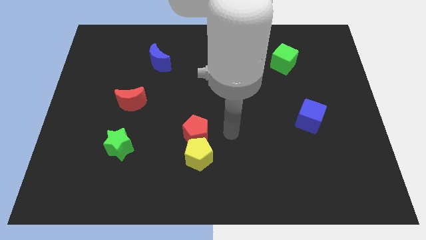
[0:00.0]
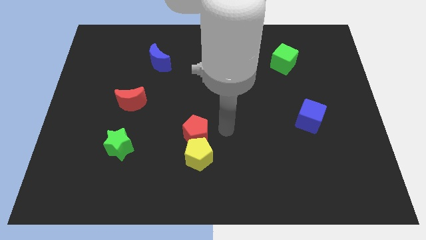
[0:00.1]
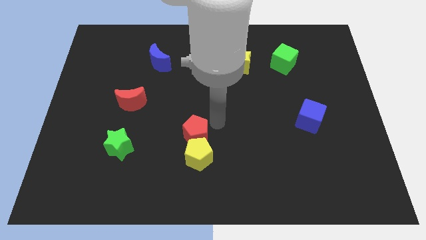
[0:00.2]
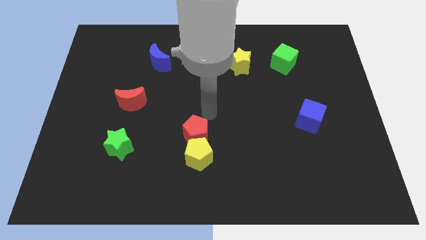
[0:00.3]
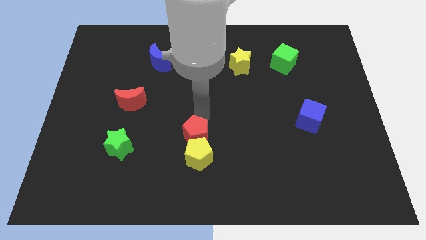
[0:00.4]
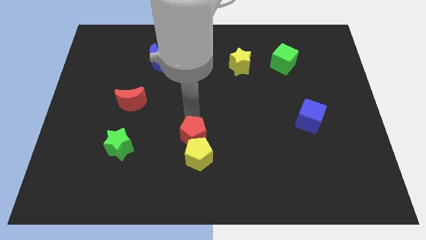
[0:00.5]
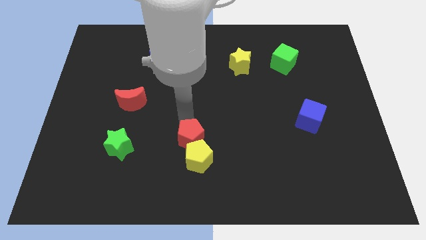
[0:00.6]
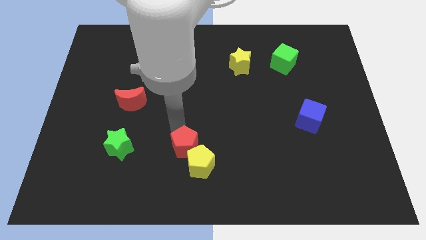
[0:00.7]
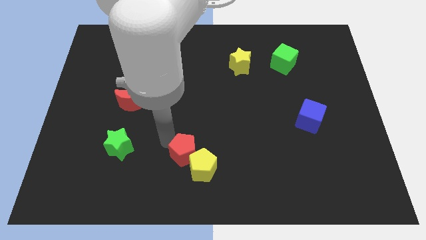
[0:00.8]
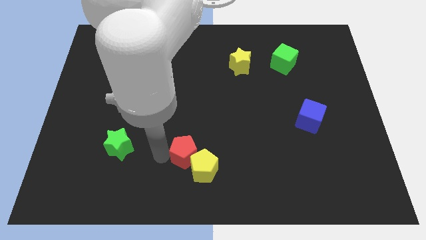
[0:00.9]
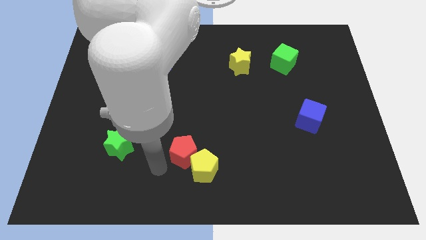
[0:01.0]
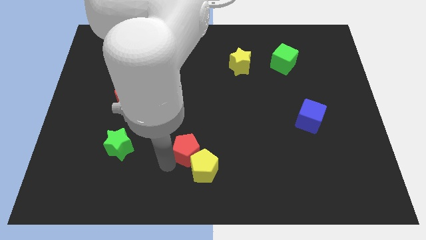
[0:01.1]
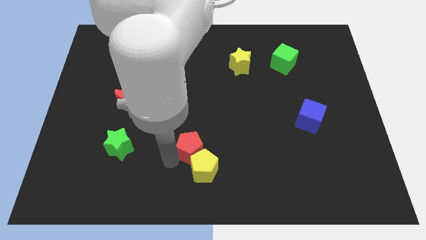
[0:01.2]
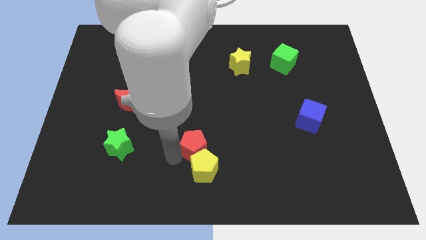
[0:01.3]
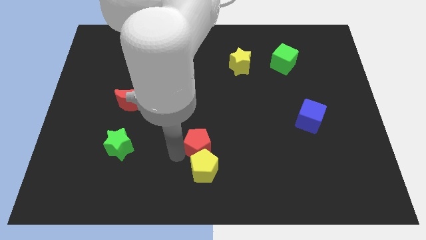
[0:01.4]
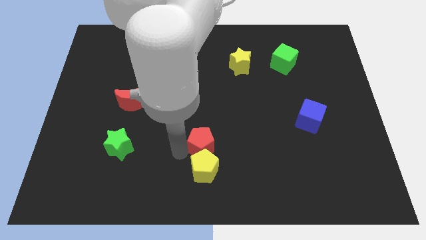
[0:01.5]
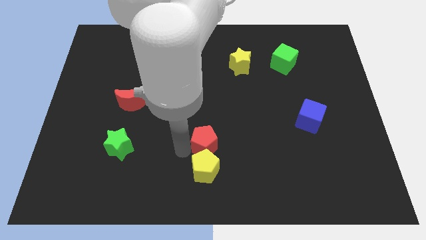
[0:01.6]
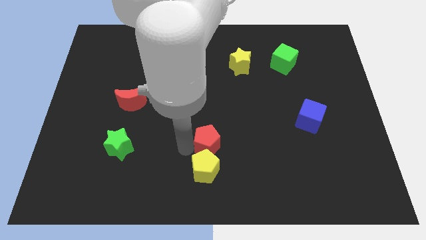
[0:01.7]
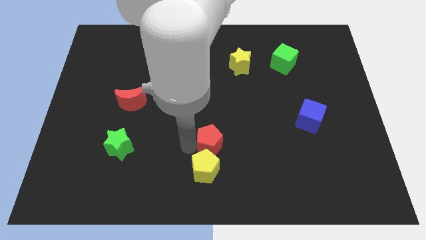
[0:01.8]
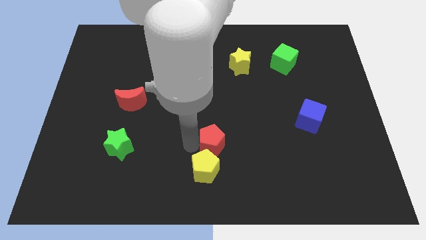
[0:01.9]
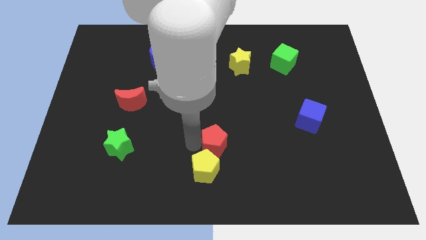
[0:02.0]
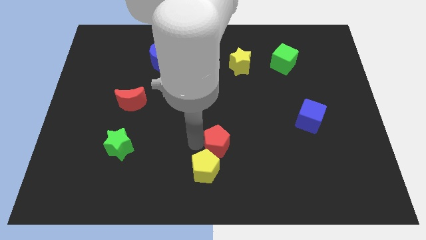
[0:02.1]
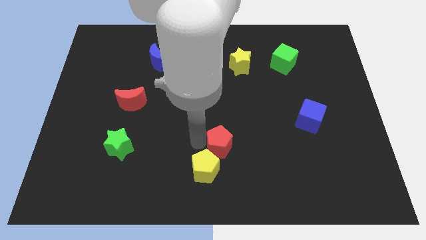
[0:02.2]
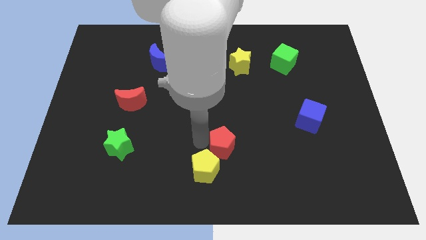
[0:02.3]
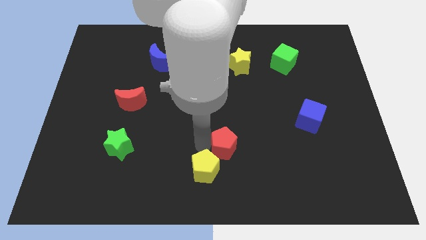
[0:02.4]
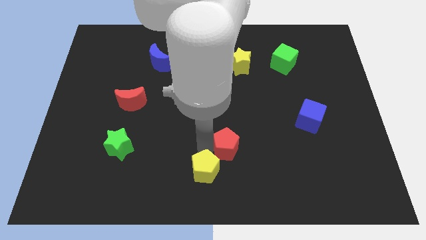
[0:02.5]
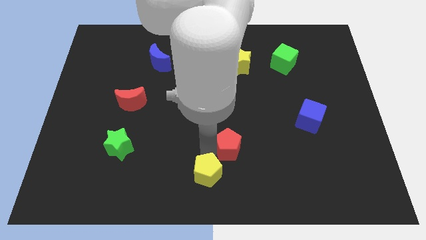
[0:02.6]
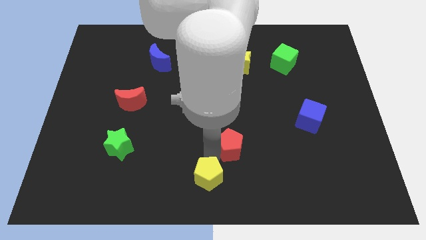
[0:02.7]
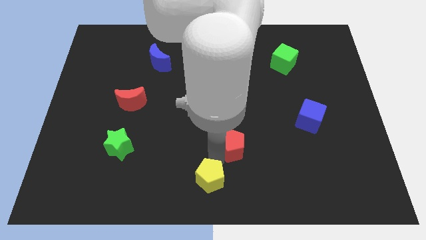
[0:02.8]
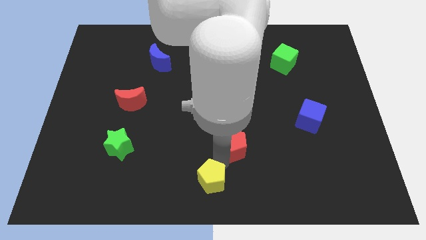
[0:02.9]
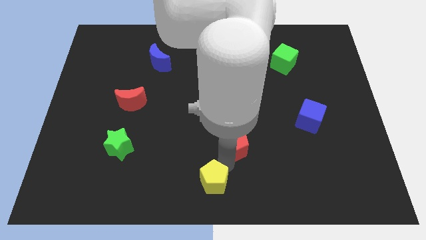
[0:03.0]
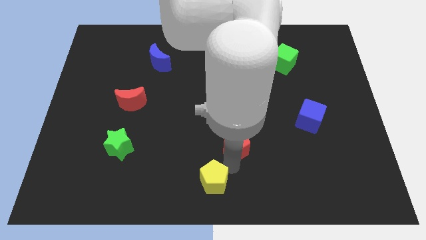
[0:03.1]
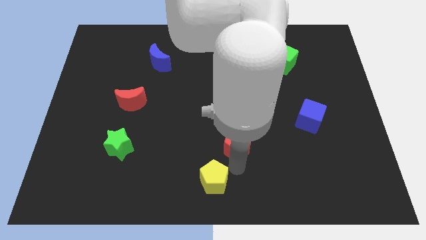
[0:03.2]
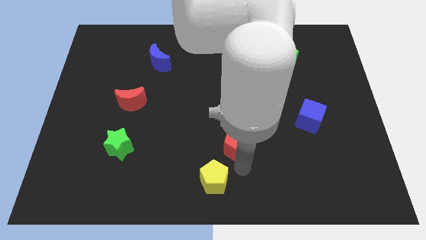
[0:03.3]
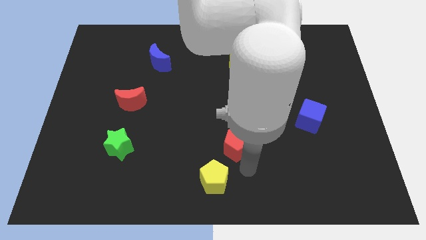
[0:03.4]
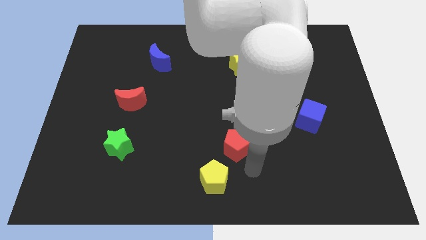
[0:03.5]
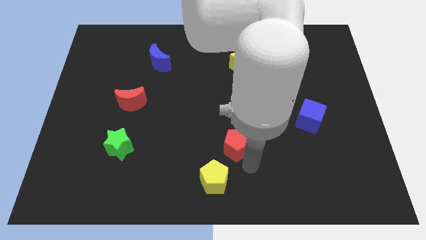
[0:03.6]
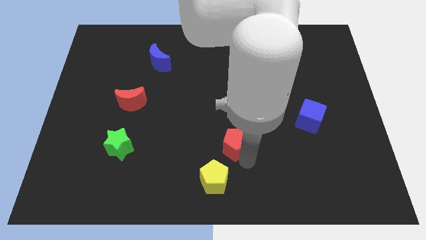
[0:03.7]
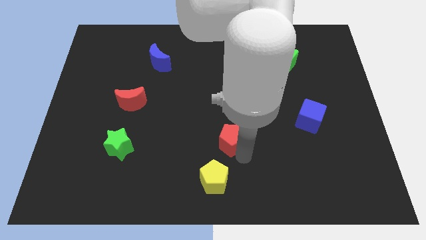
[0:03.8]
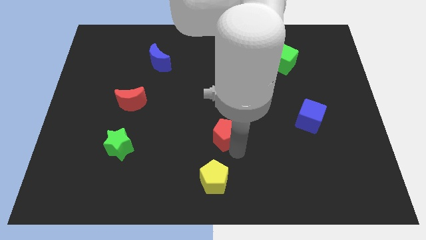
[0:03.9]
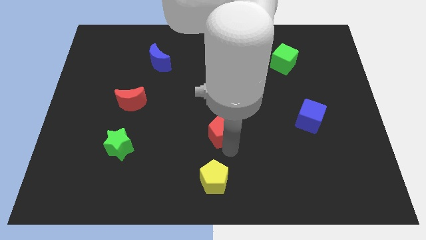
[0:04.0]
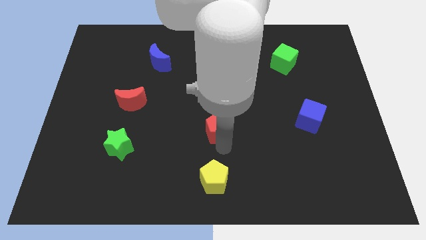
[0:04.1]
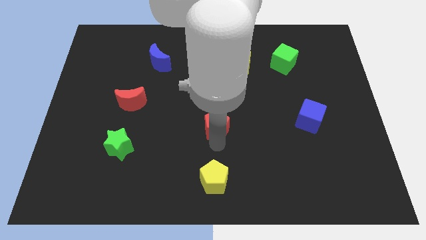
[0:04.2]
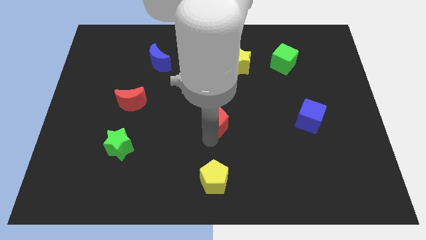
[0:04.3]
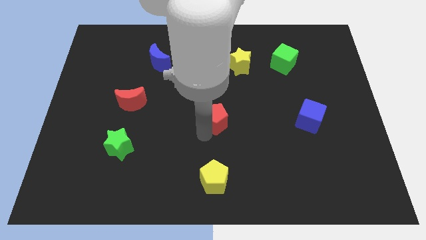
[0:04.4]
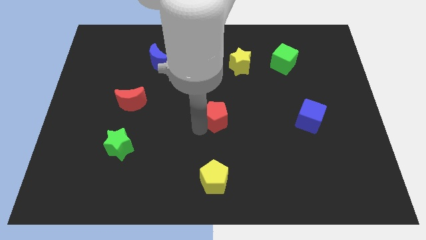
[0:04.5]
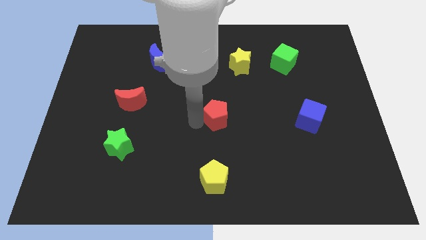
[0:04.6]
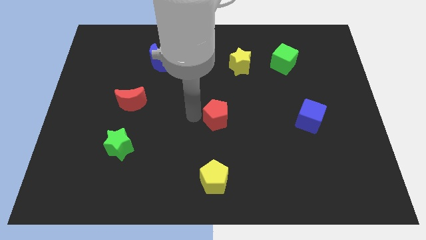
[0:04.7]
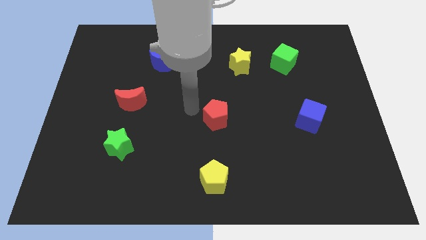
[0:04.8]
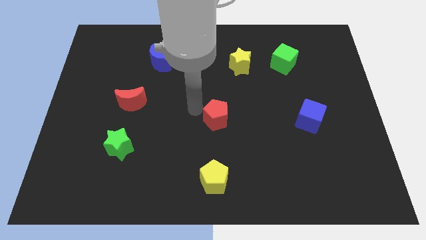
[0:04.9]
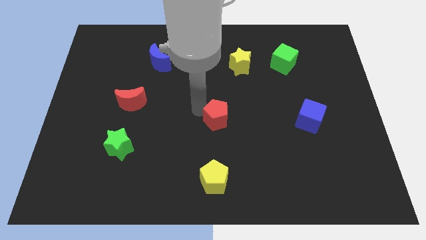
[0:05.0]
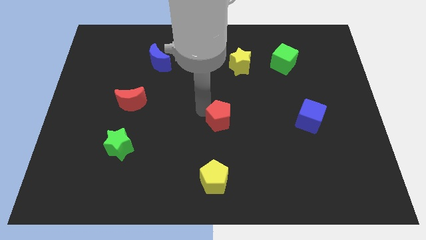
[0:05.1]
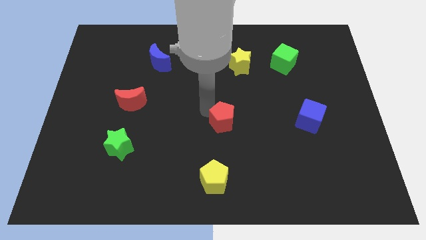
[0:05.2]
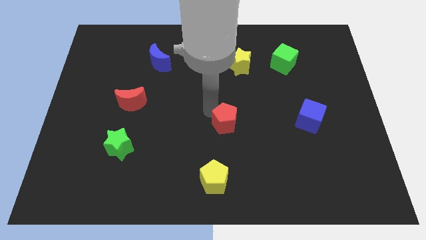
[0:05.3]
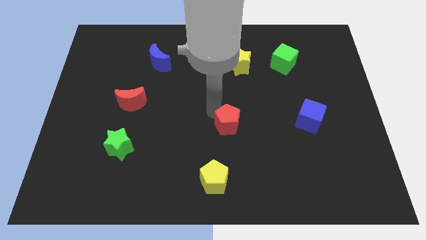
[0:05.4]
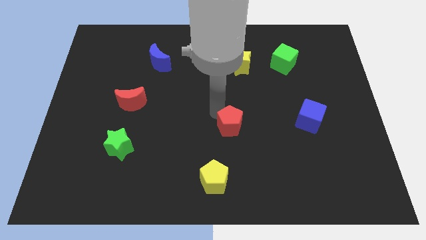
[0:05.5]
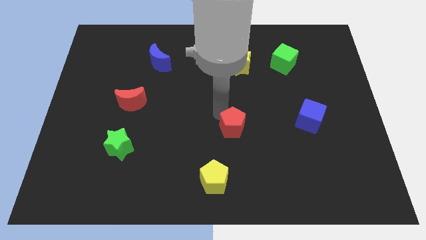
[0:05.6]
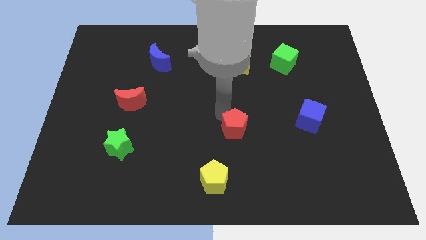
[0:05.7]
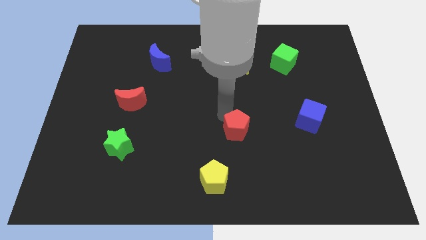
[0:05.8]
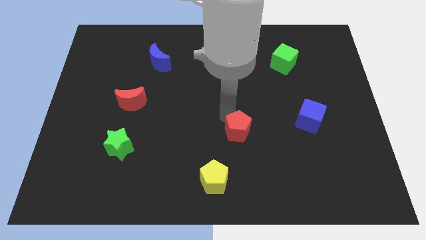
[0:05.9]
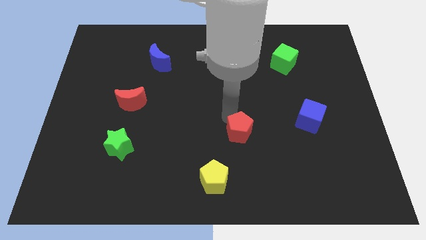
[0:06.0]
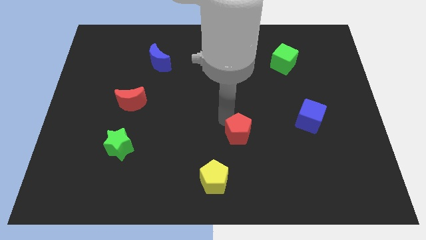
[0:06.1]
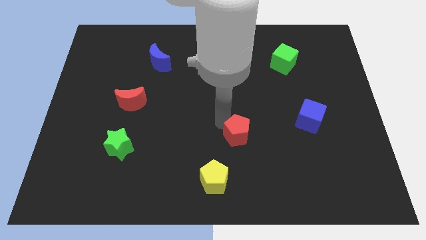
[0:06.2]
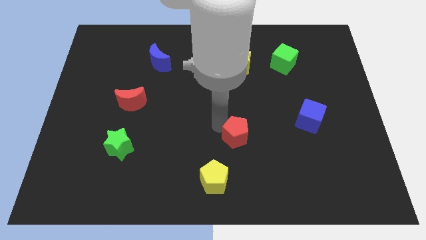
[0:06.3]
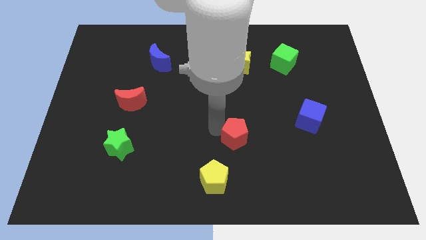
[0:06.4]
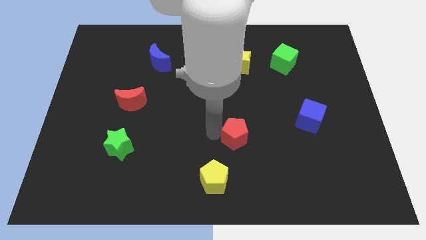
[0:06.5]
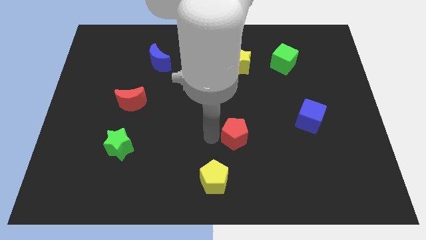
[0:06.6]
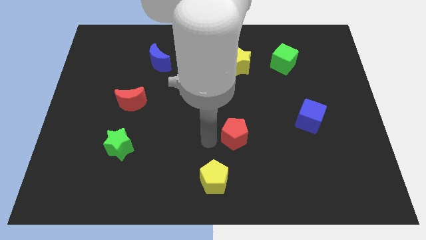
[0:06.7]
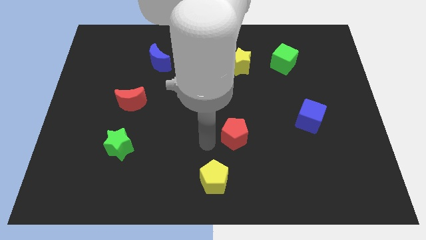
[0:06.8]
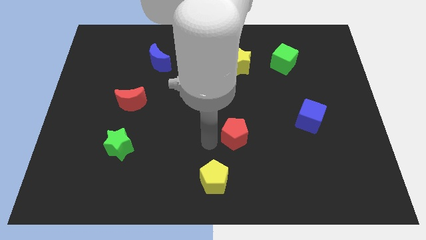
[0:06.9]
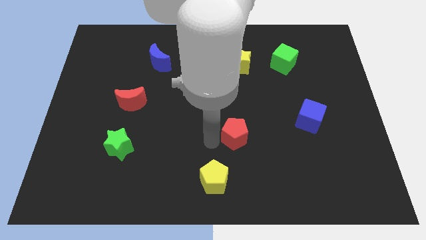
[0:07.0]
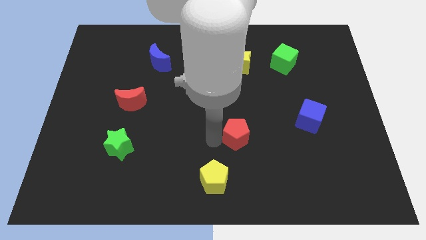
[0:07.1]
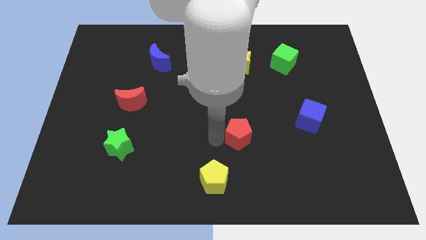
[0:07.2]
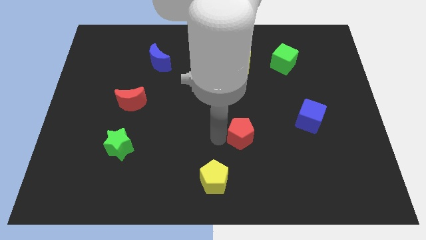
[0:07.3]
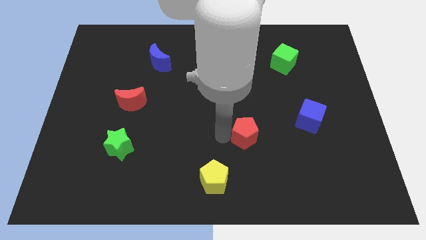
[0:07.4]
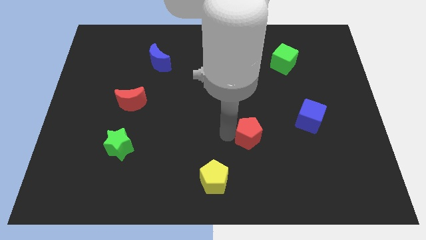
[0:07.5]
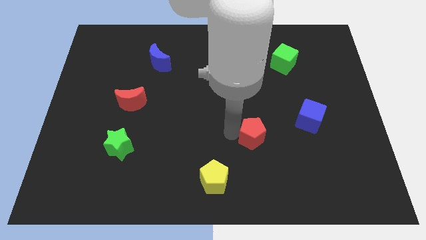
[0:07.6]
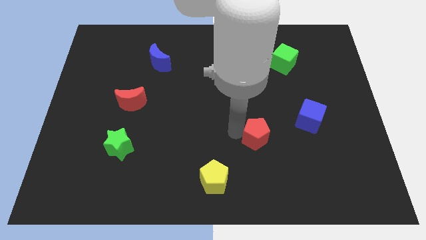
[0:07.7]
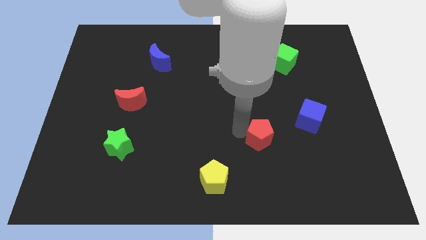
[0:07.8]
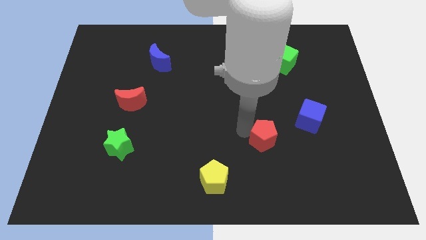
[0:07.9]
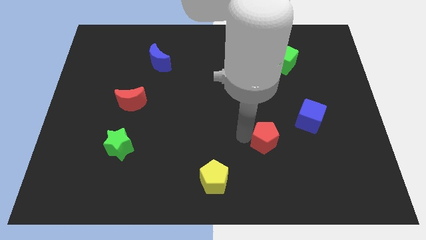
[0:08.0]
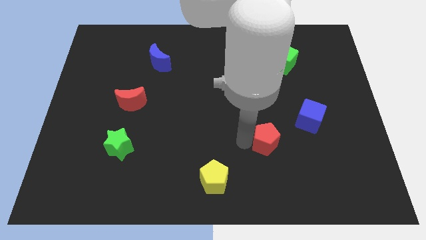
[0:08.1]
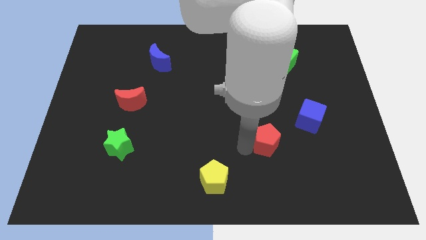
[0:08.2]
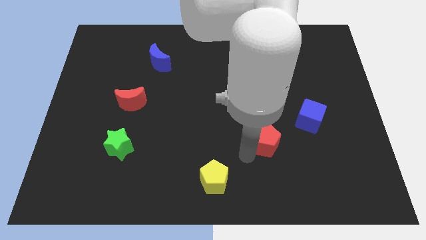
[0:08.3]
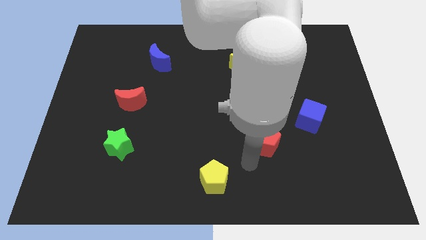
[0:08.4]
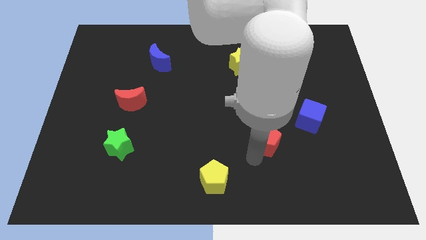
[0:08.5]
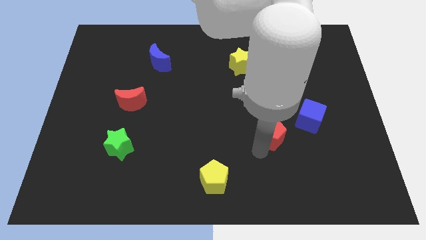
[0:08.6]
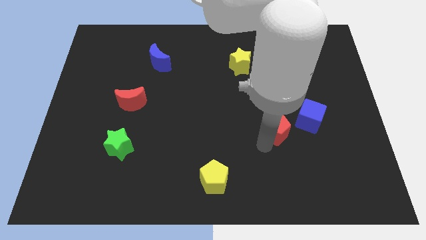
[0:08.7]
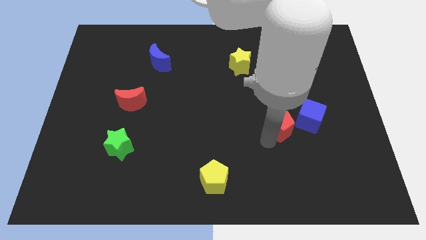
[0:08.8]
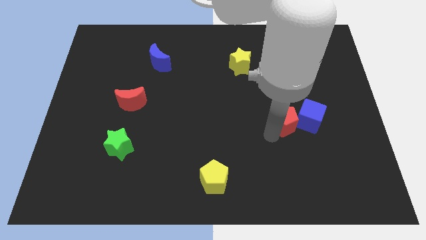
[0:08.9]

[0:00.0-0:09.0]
put the red pentagon next to the blue cube
